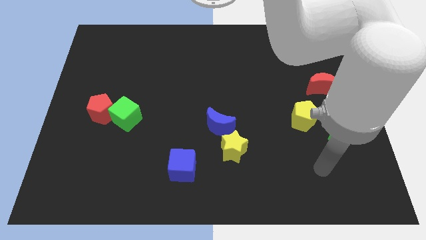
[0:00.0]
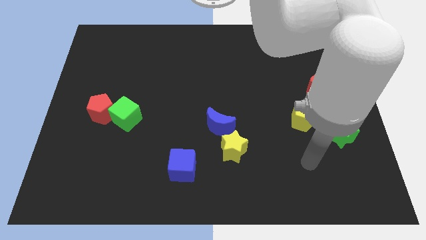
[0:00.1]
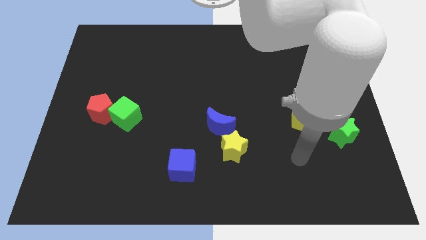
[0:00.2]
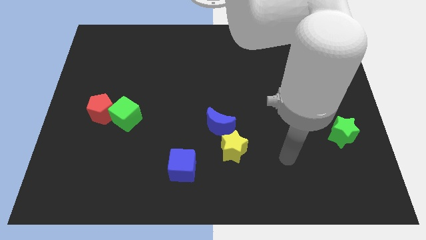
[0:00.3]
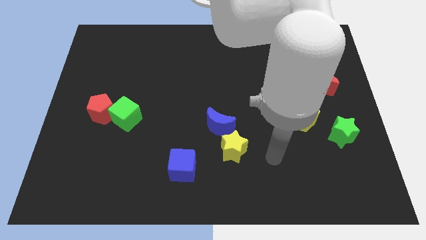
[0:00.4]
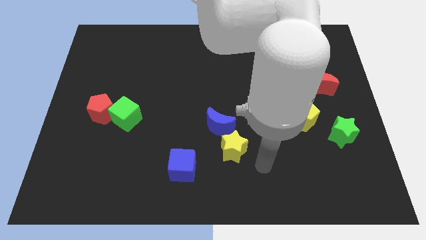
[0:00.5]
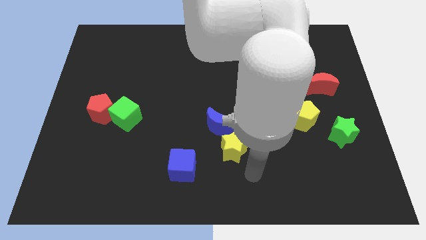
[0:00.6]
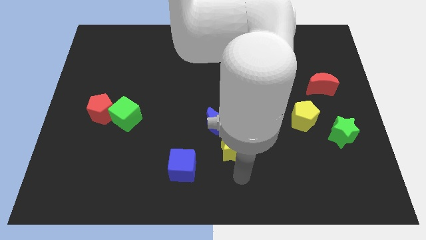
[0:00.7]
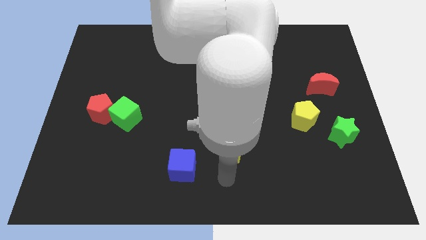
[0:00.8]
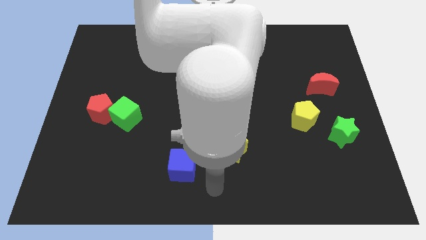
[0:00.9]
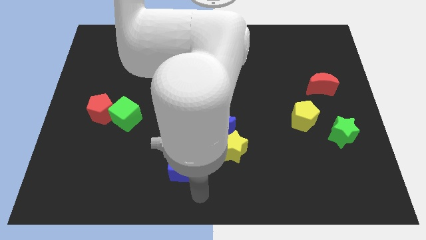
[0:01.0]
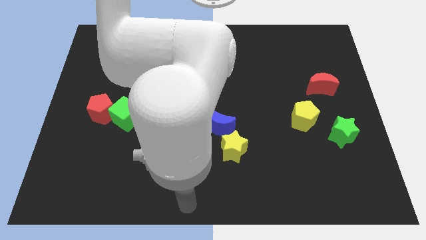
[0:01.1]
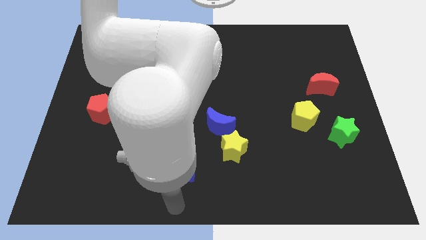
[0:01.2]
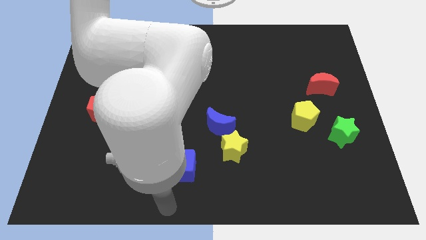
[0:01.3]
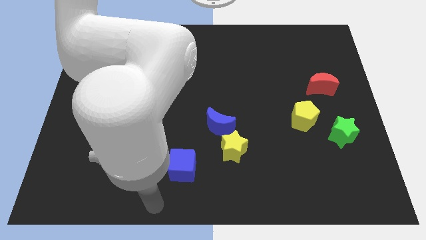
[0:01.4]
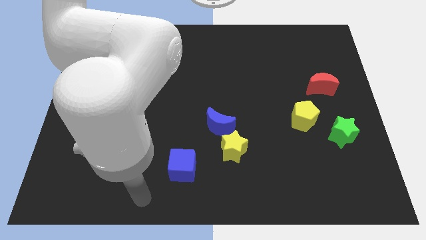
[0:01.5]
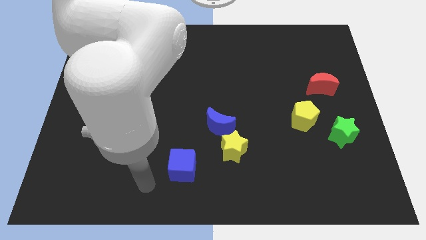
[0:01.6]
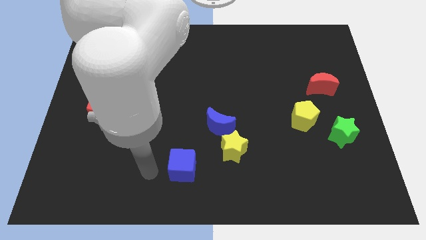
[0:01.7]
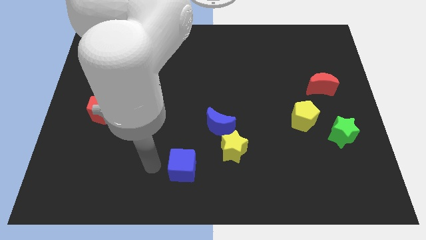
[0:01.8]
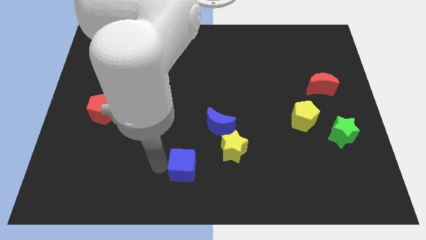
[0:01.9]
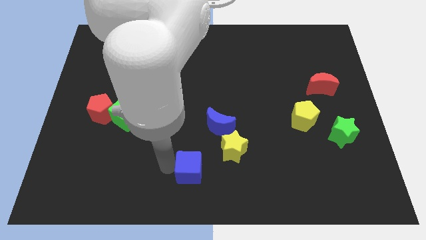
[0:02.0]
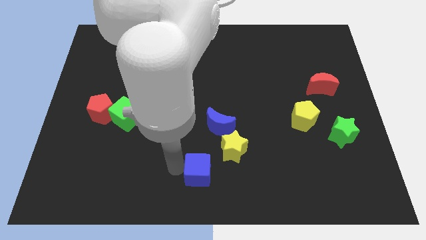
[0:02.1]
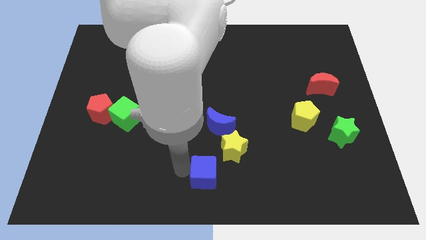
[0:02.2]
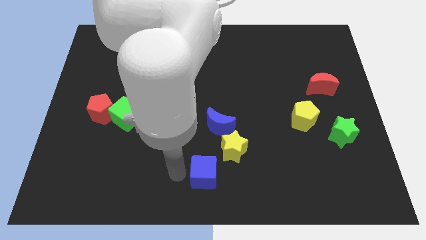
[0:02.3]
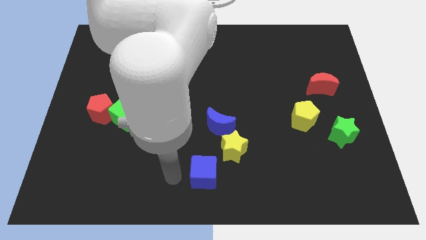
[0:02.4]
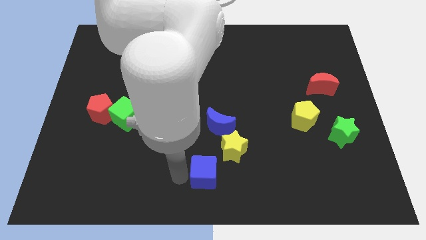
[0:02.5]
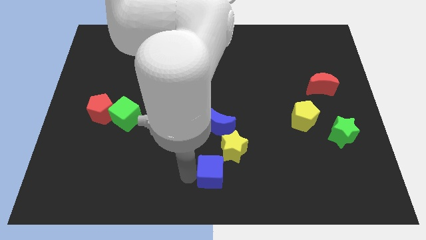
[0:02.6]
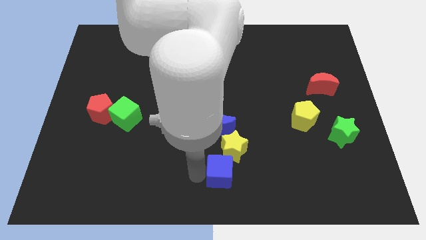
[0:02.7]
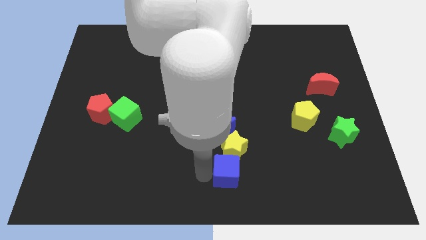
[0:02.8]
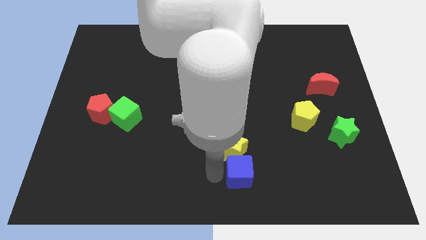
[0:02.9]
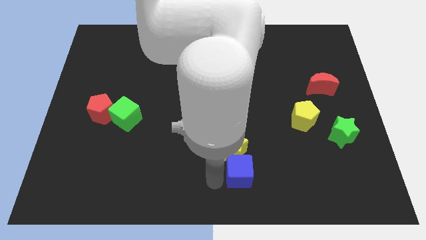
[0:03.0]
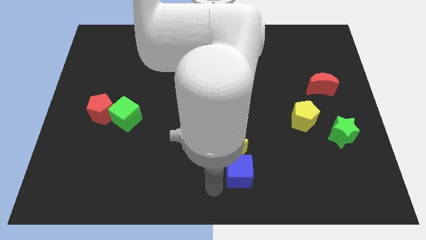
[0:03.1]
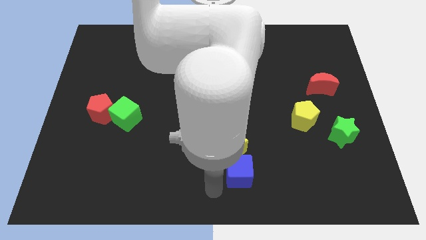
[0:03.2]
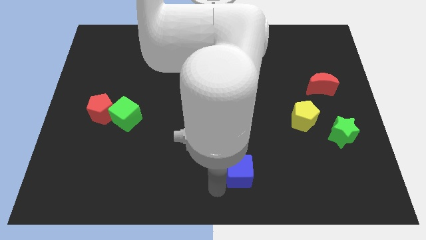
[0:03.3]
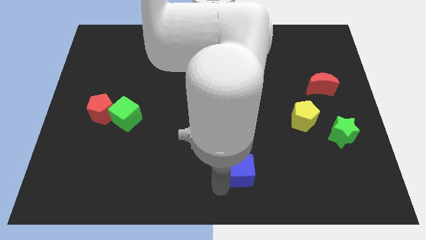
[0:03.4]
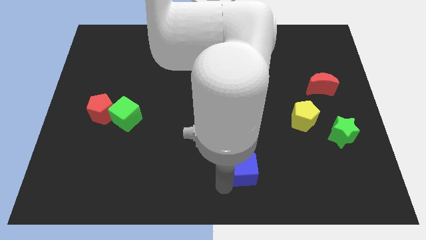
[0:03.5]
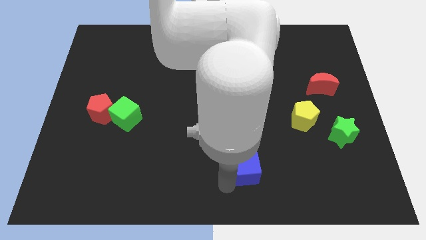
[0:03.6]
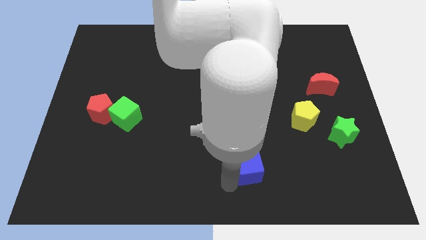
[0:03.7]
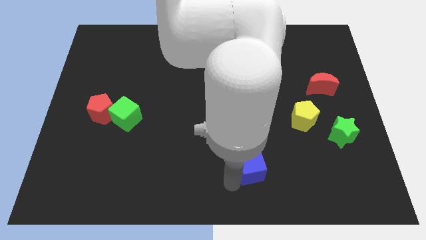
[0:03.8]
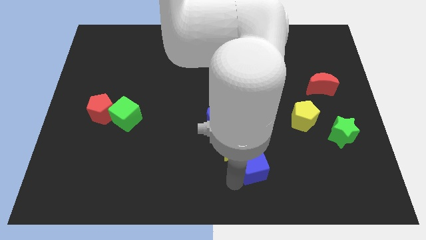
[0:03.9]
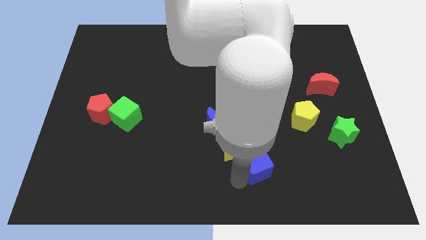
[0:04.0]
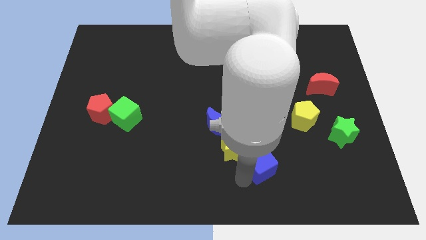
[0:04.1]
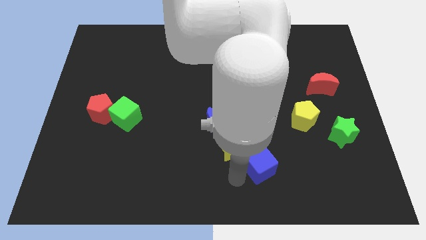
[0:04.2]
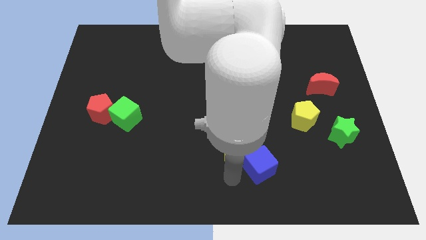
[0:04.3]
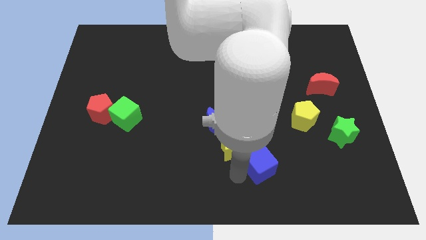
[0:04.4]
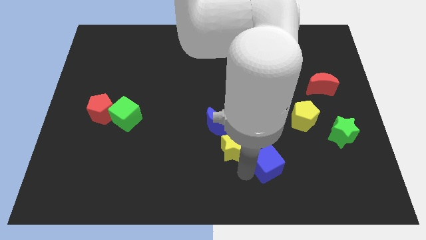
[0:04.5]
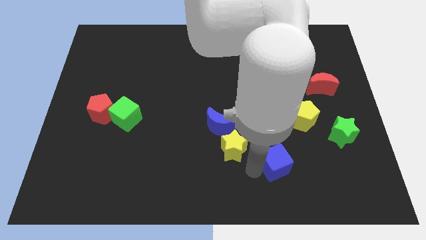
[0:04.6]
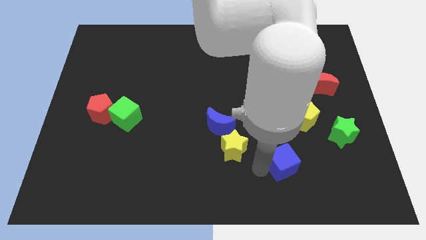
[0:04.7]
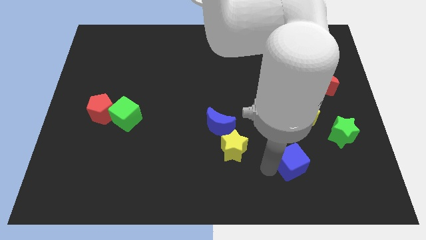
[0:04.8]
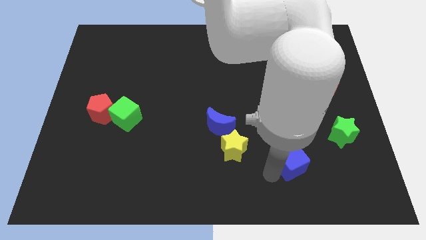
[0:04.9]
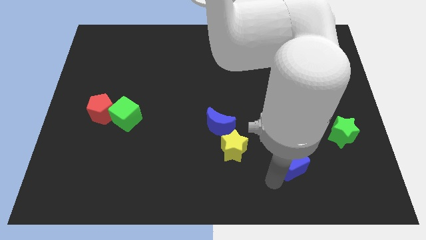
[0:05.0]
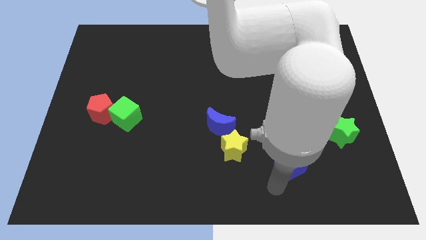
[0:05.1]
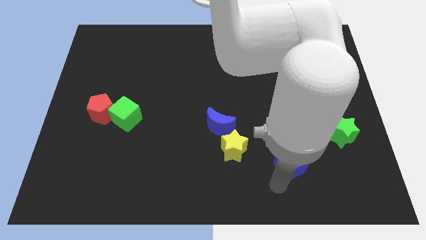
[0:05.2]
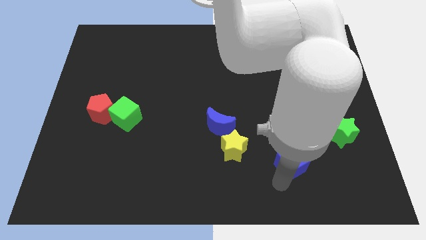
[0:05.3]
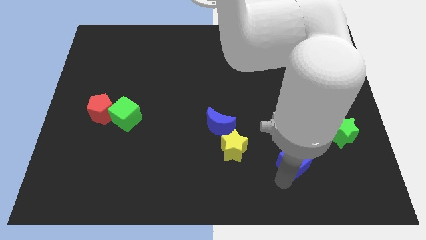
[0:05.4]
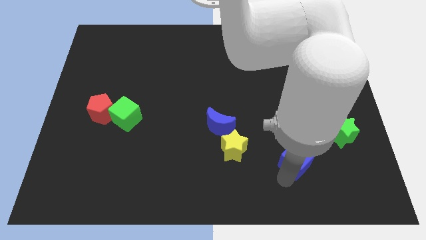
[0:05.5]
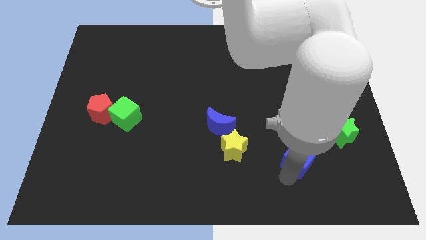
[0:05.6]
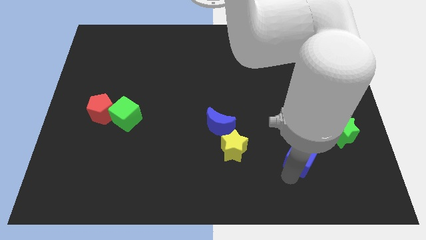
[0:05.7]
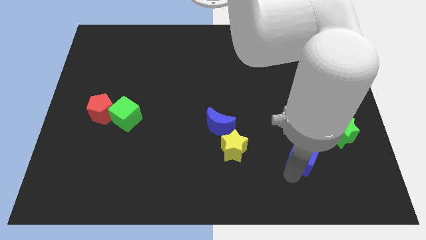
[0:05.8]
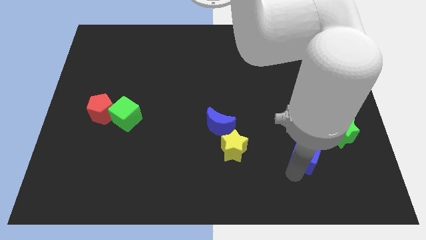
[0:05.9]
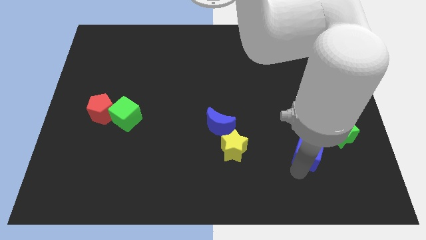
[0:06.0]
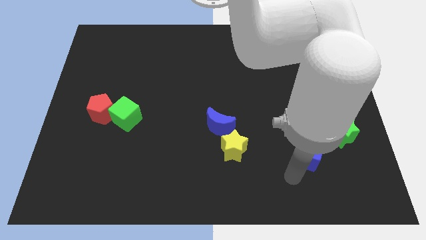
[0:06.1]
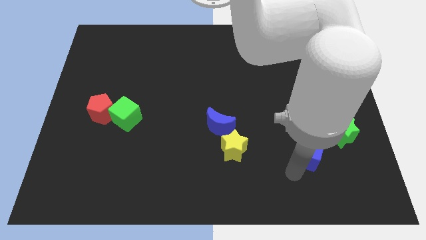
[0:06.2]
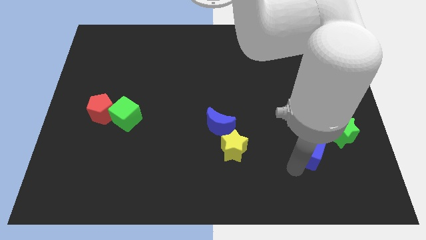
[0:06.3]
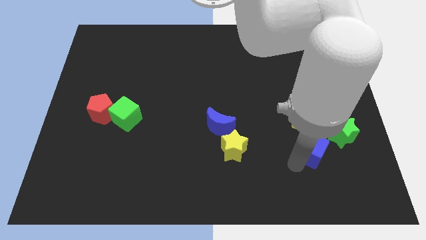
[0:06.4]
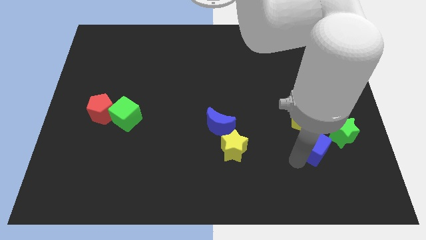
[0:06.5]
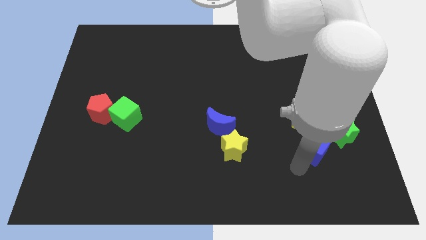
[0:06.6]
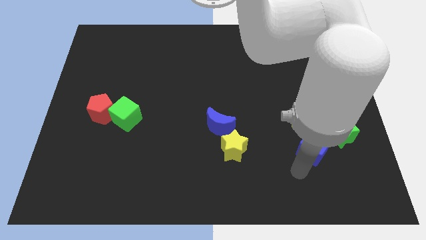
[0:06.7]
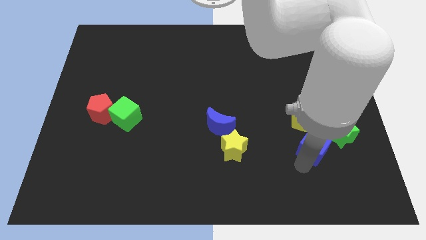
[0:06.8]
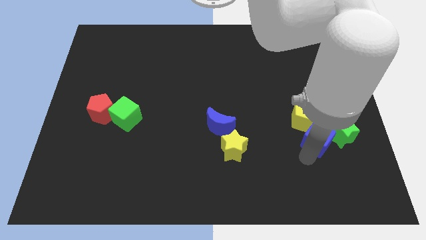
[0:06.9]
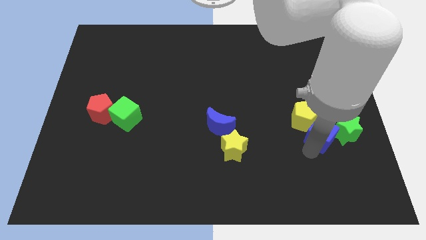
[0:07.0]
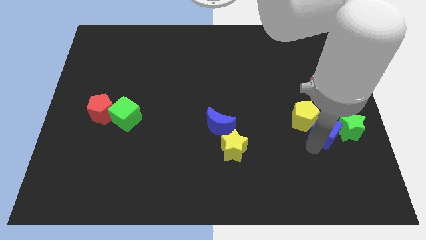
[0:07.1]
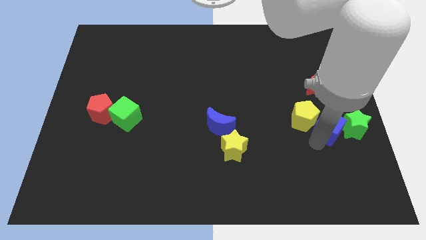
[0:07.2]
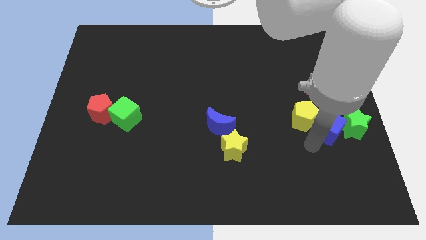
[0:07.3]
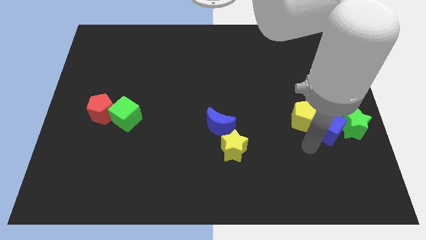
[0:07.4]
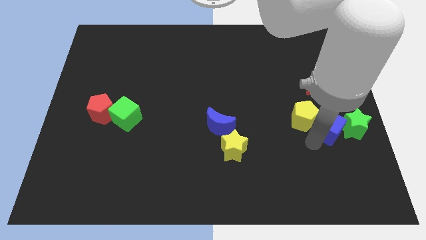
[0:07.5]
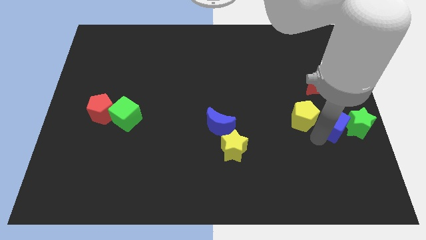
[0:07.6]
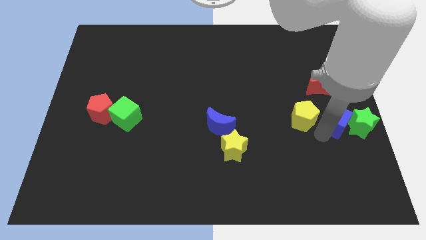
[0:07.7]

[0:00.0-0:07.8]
push the blue cube to the right side of the board
